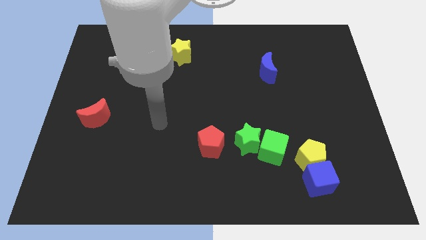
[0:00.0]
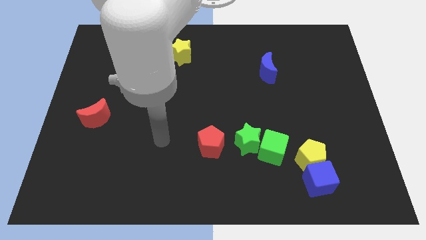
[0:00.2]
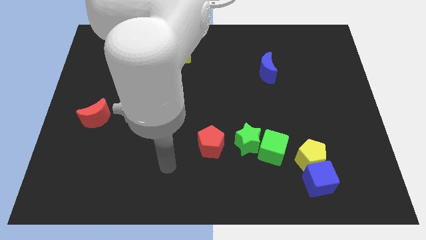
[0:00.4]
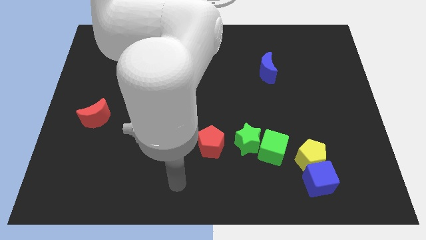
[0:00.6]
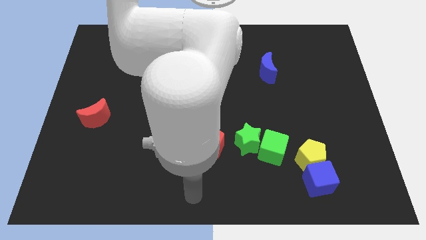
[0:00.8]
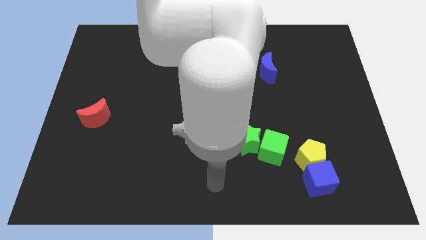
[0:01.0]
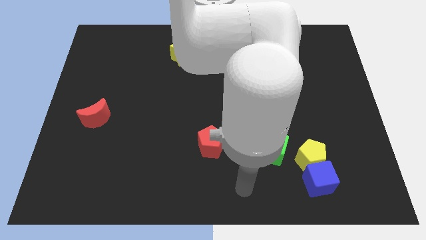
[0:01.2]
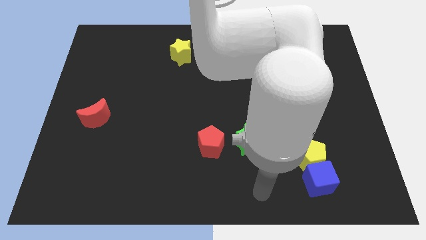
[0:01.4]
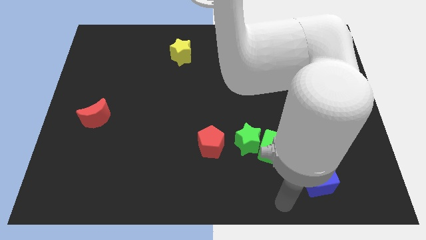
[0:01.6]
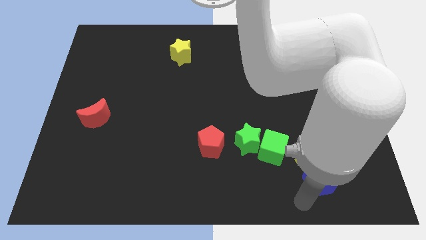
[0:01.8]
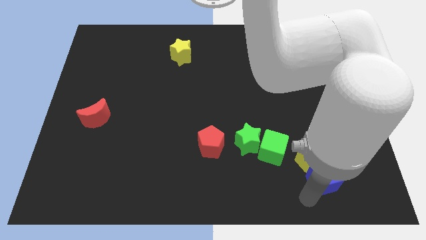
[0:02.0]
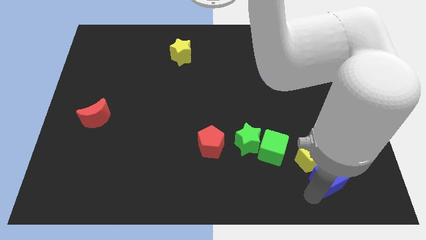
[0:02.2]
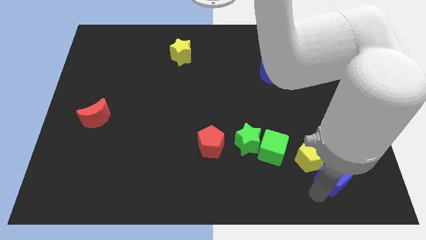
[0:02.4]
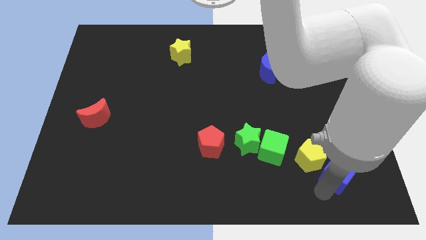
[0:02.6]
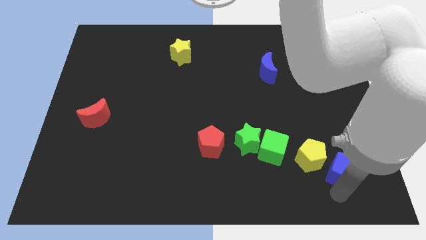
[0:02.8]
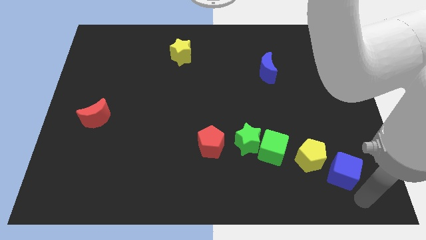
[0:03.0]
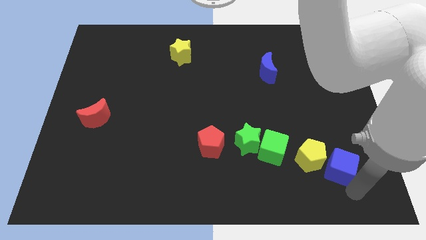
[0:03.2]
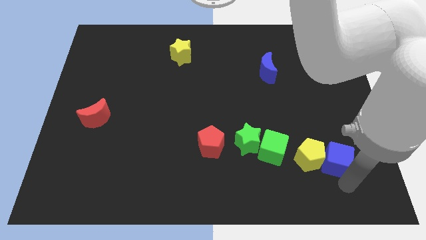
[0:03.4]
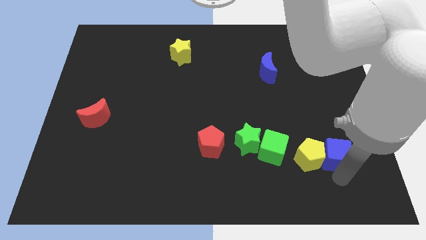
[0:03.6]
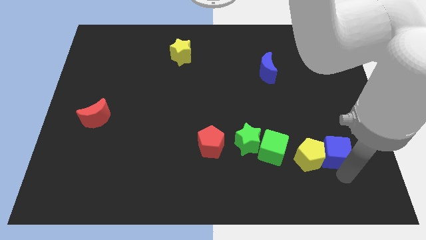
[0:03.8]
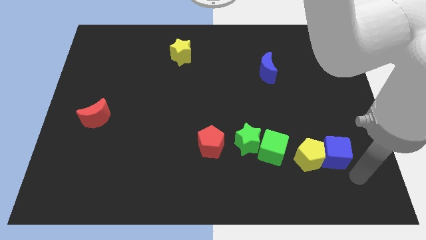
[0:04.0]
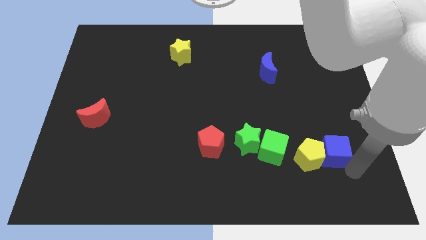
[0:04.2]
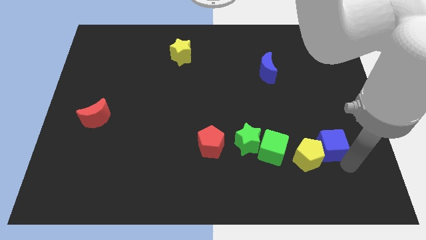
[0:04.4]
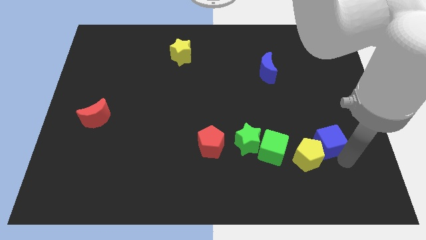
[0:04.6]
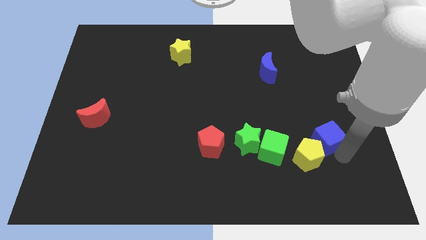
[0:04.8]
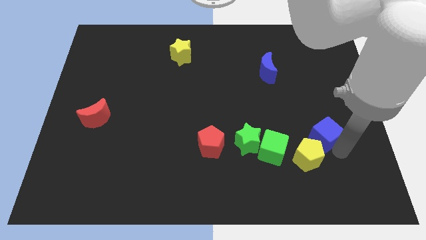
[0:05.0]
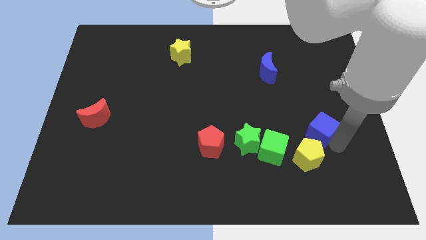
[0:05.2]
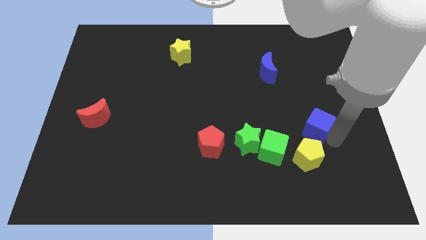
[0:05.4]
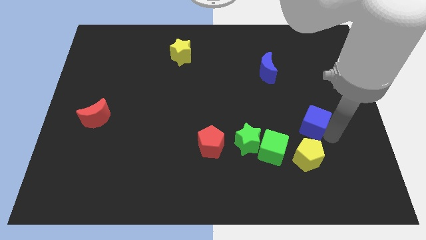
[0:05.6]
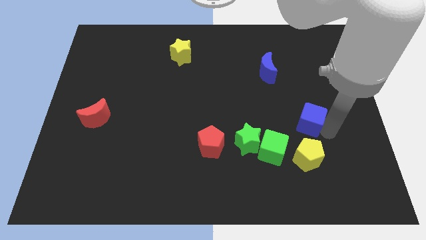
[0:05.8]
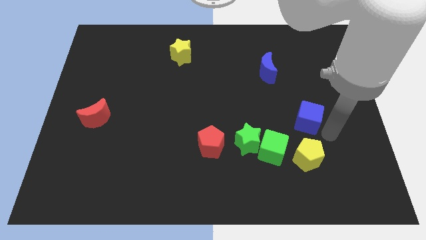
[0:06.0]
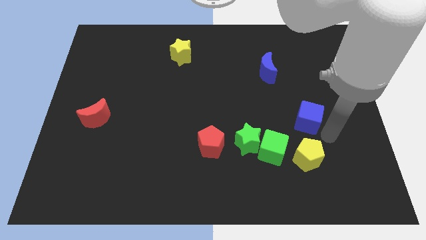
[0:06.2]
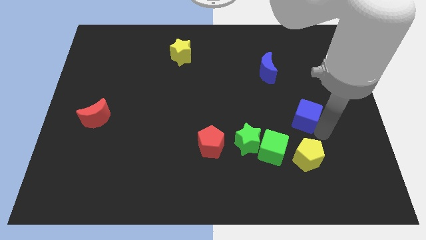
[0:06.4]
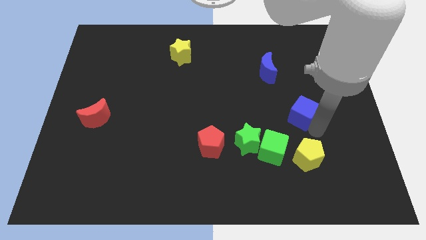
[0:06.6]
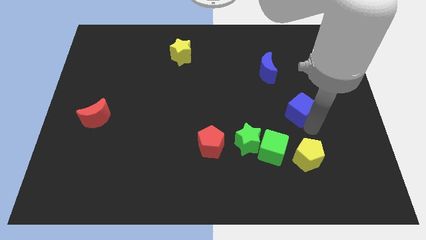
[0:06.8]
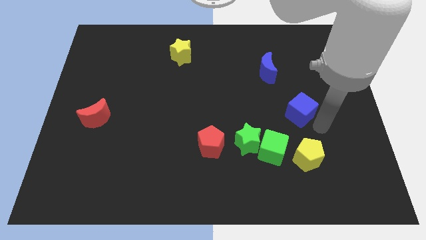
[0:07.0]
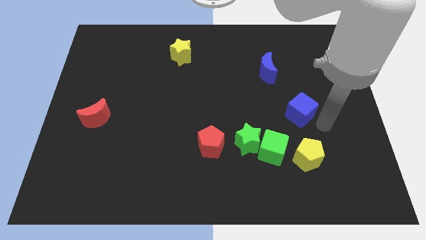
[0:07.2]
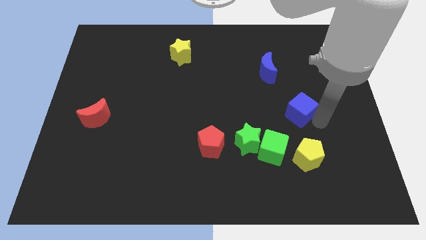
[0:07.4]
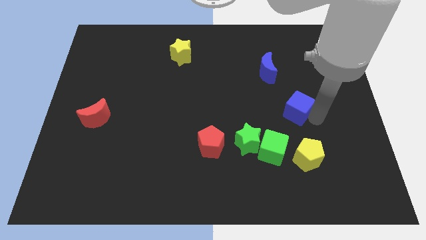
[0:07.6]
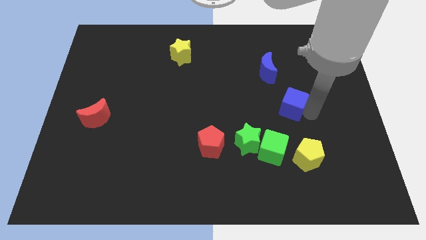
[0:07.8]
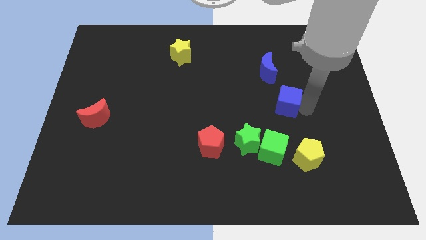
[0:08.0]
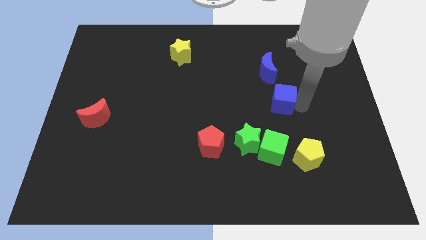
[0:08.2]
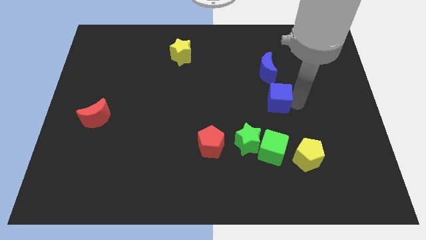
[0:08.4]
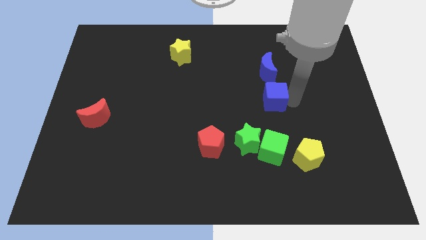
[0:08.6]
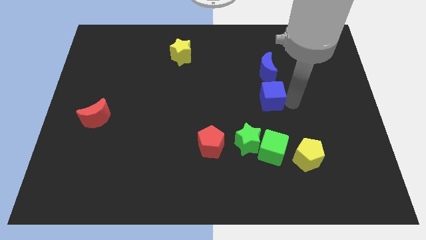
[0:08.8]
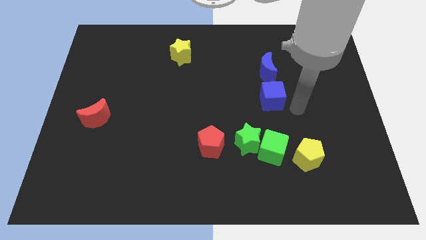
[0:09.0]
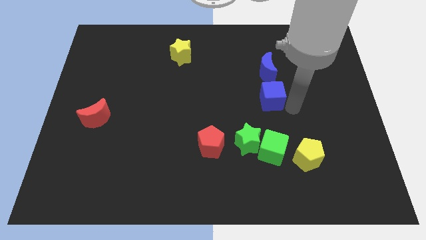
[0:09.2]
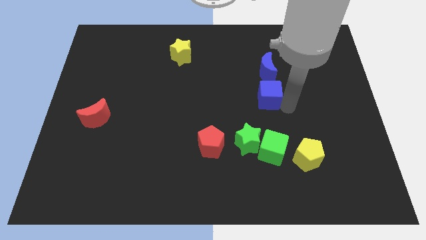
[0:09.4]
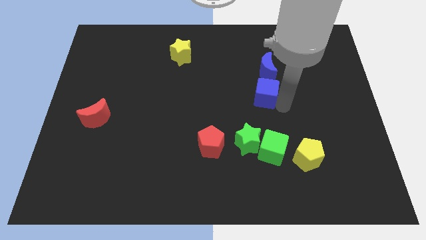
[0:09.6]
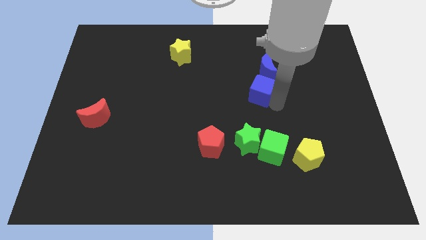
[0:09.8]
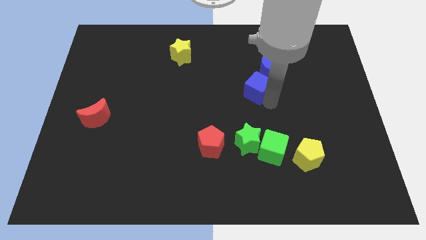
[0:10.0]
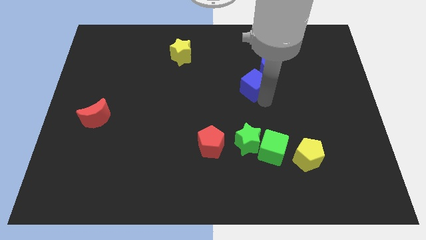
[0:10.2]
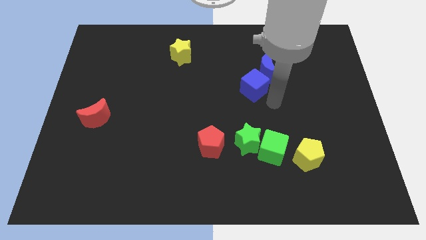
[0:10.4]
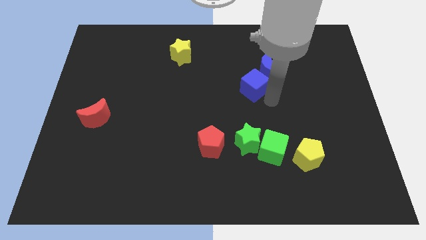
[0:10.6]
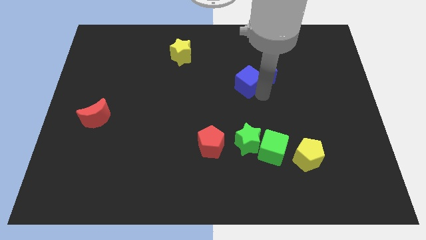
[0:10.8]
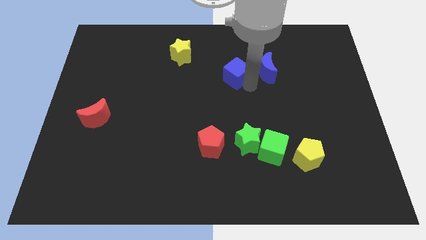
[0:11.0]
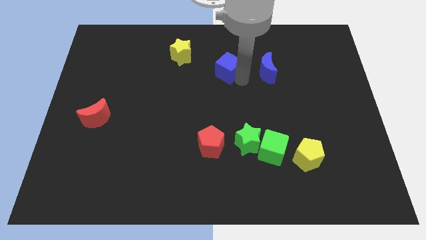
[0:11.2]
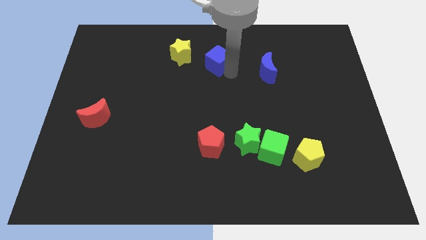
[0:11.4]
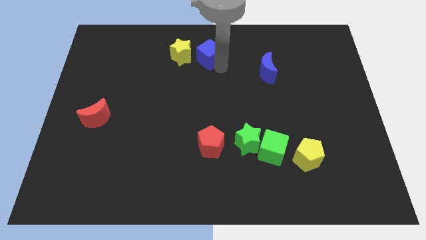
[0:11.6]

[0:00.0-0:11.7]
push the blue cube to the towards your base

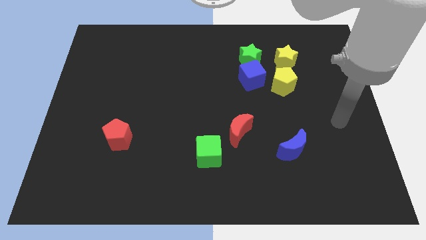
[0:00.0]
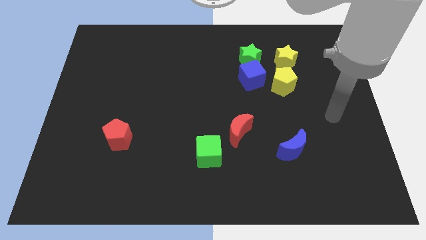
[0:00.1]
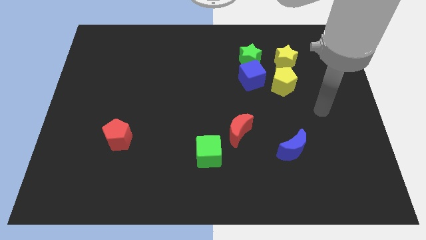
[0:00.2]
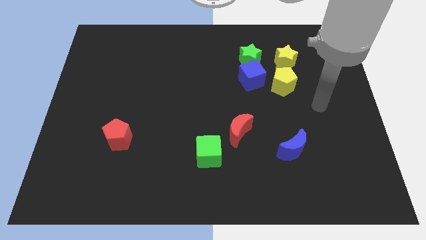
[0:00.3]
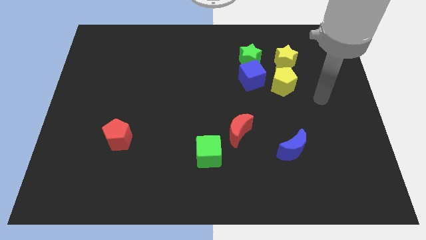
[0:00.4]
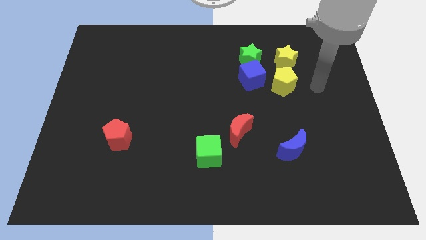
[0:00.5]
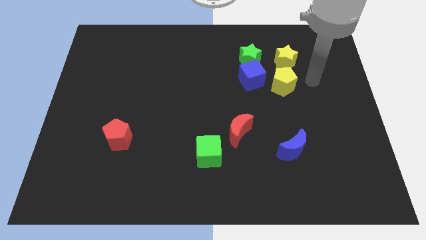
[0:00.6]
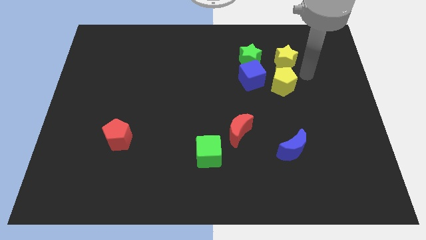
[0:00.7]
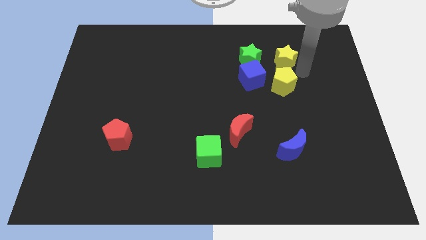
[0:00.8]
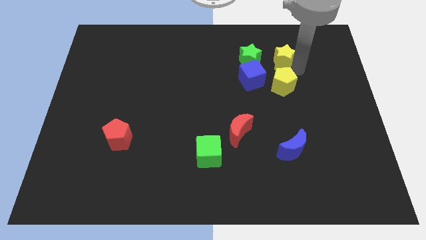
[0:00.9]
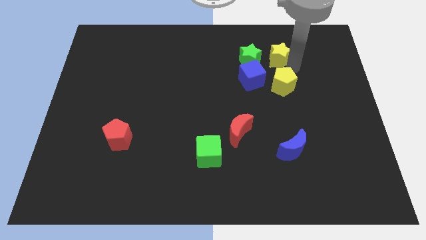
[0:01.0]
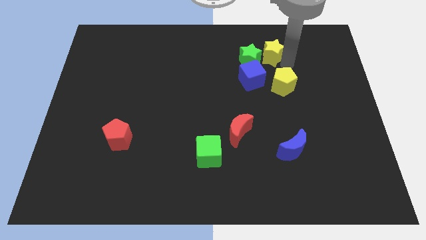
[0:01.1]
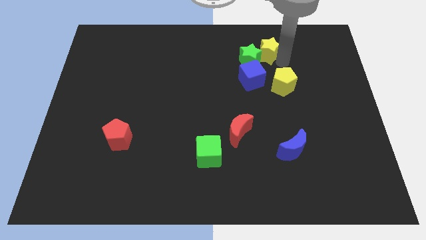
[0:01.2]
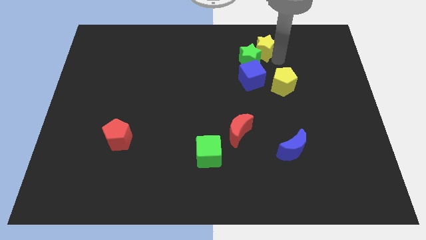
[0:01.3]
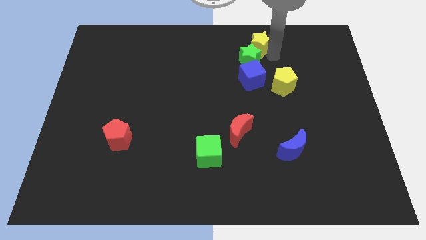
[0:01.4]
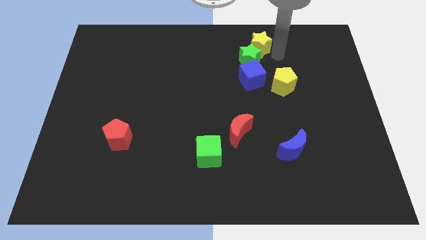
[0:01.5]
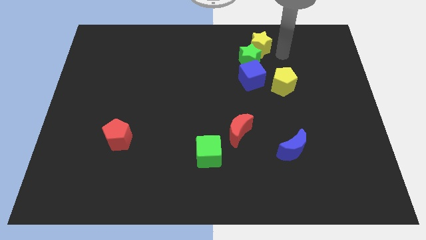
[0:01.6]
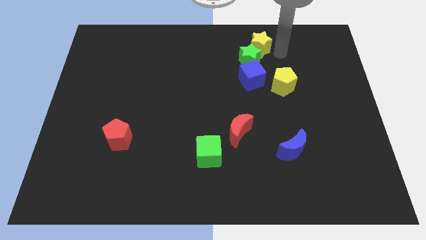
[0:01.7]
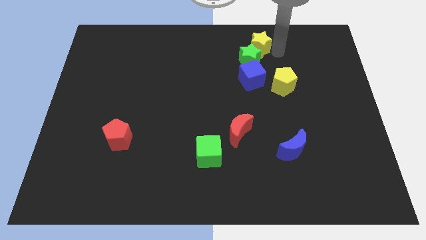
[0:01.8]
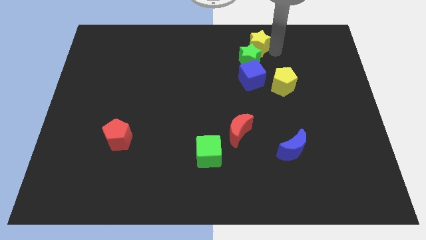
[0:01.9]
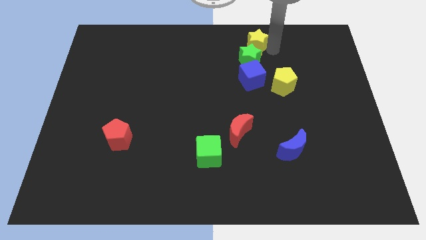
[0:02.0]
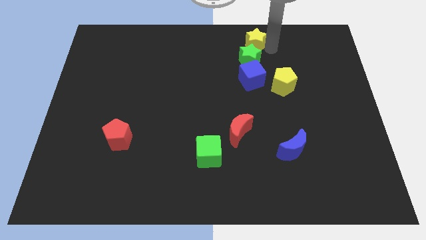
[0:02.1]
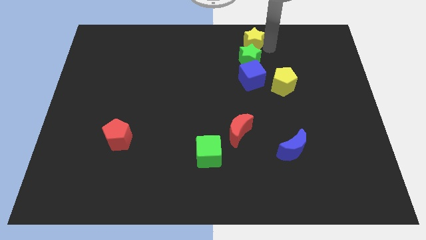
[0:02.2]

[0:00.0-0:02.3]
move the yellow star to the towards your base
